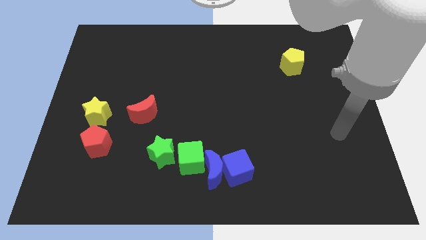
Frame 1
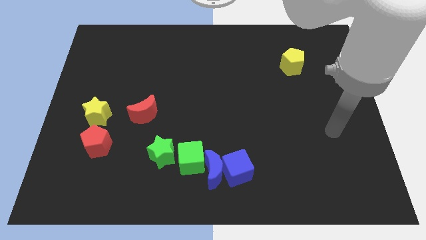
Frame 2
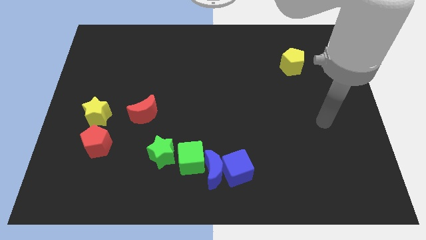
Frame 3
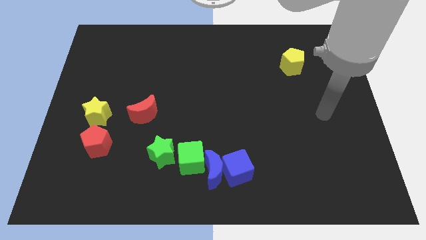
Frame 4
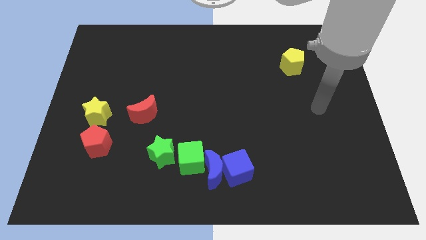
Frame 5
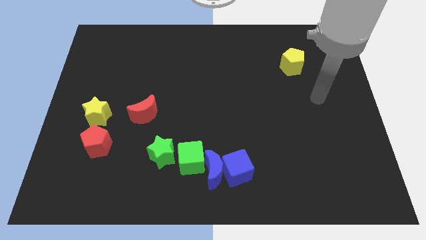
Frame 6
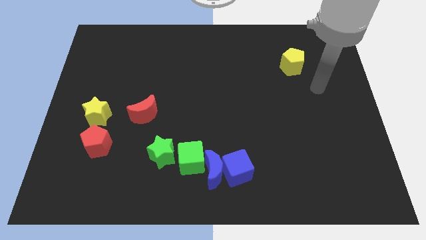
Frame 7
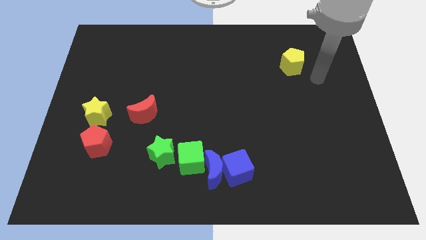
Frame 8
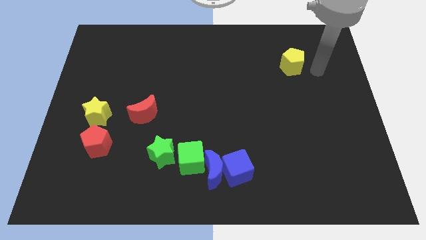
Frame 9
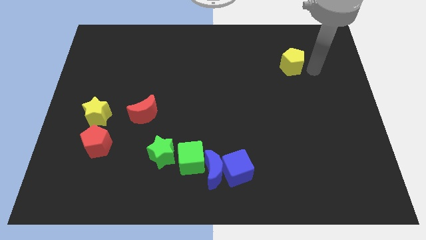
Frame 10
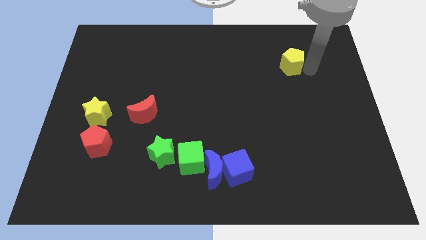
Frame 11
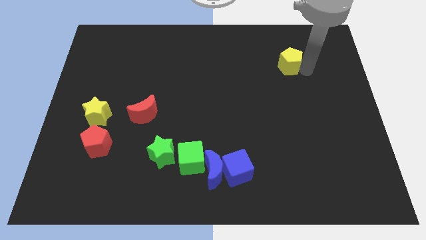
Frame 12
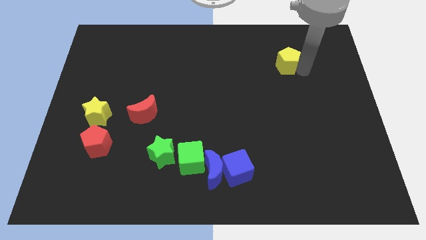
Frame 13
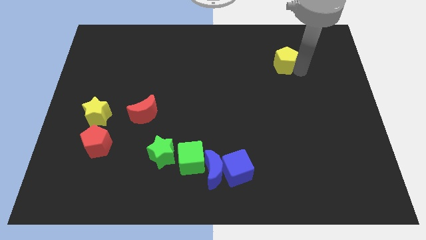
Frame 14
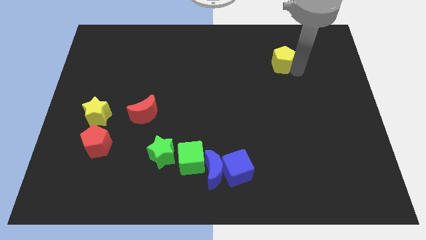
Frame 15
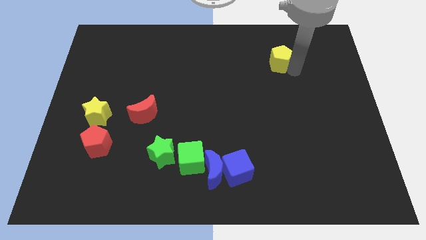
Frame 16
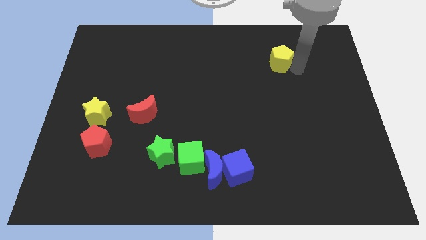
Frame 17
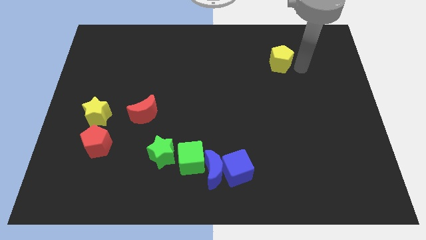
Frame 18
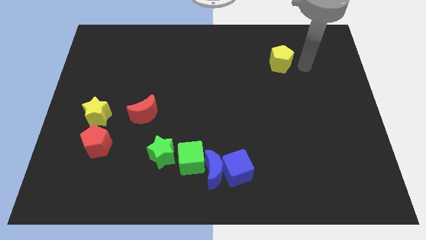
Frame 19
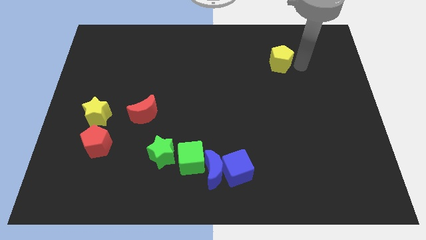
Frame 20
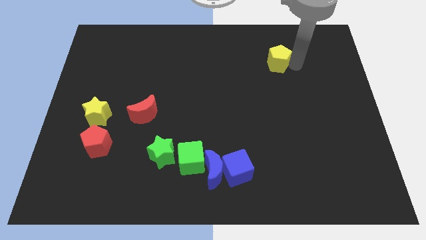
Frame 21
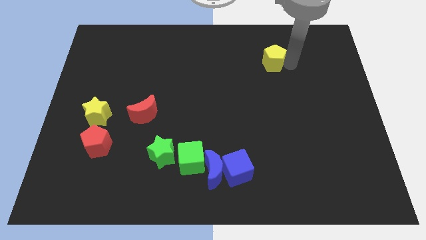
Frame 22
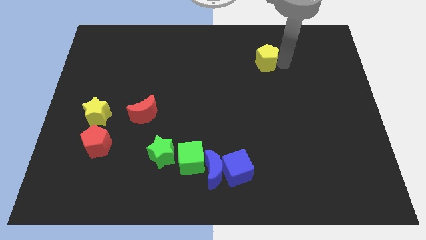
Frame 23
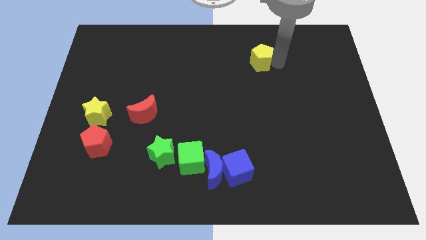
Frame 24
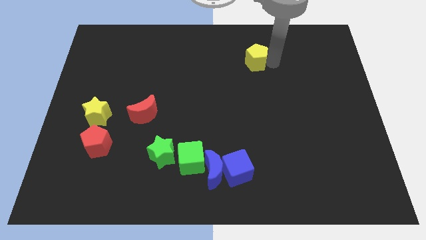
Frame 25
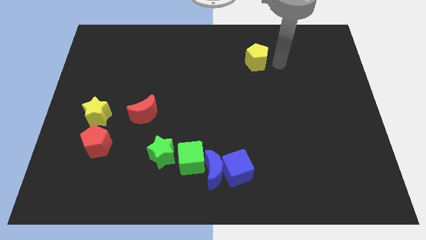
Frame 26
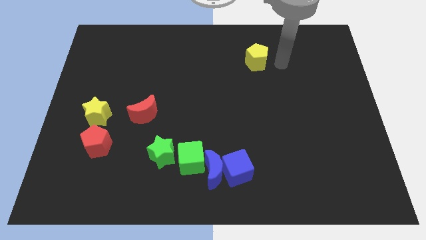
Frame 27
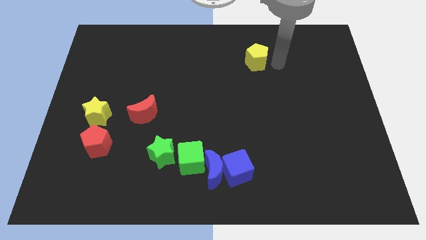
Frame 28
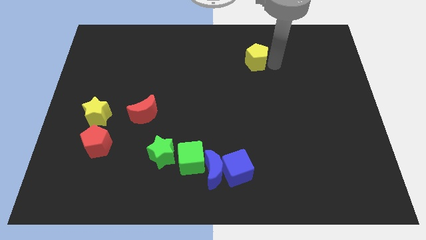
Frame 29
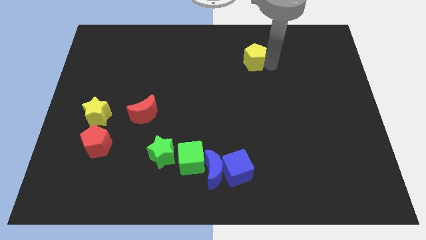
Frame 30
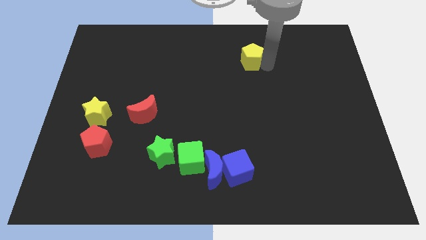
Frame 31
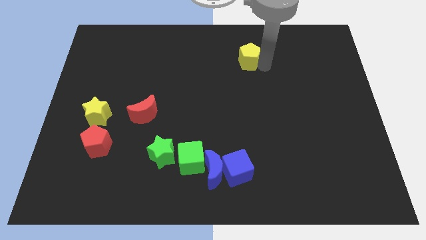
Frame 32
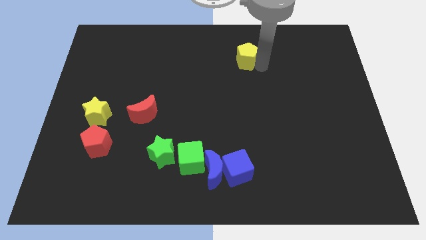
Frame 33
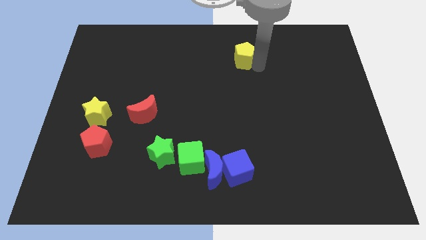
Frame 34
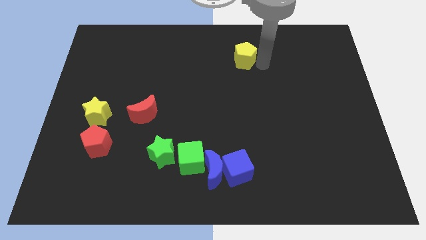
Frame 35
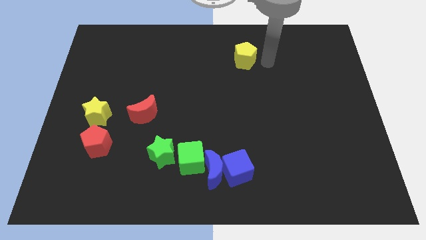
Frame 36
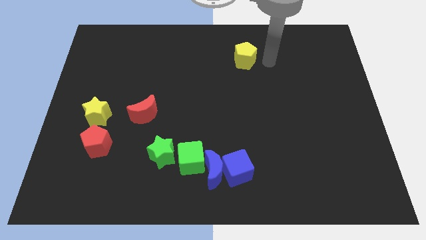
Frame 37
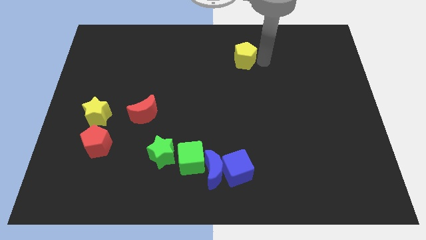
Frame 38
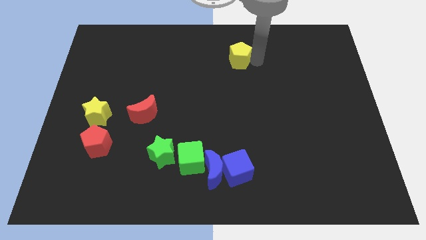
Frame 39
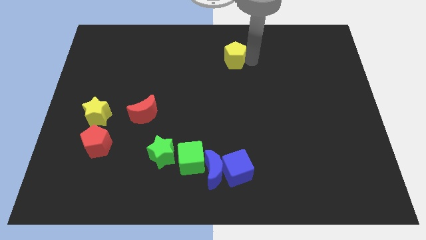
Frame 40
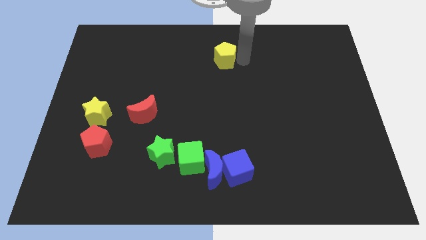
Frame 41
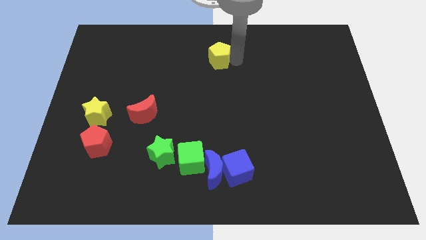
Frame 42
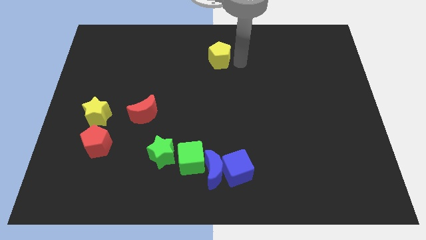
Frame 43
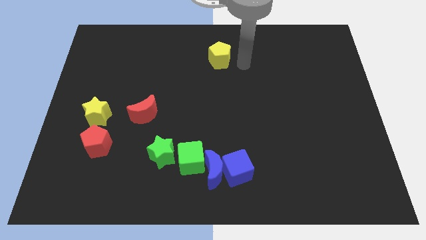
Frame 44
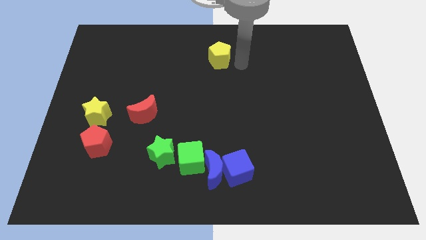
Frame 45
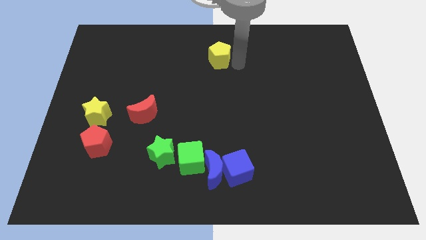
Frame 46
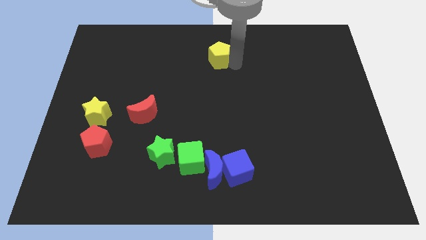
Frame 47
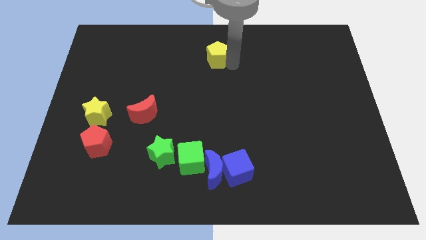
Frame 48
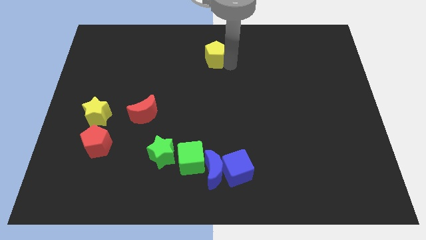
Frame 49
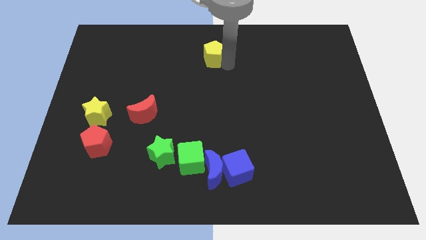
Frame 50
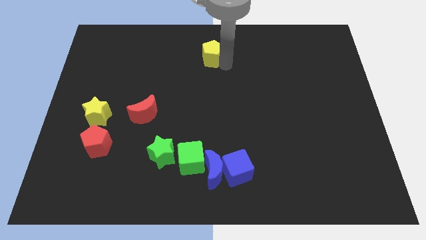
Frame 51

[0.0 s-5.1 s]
move the yellow pentagon to the towards your base

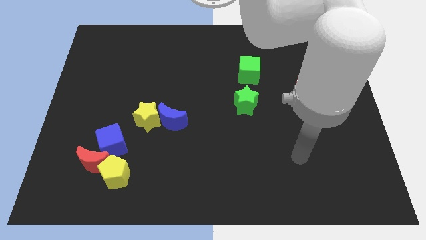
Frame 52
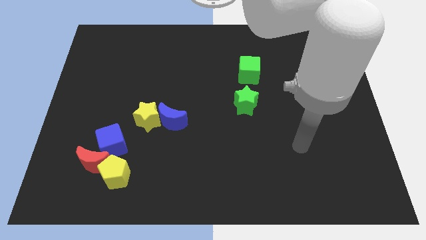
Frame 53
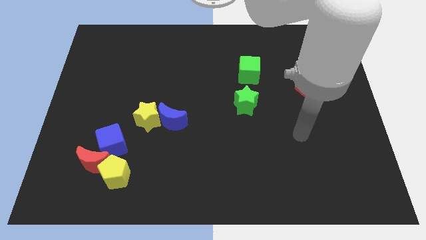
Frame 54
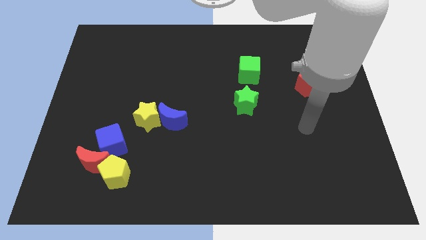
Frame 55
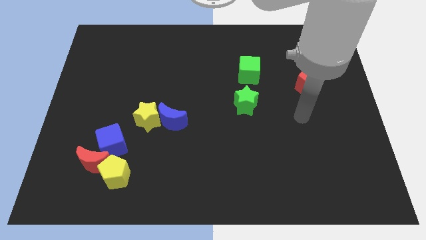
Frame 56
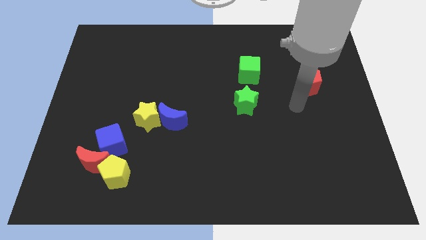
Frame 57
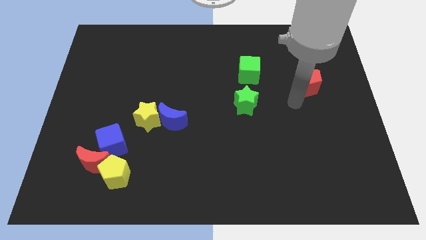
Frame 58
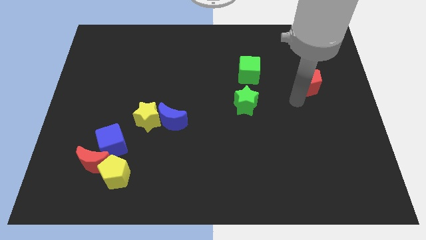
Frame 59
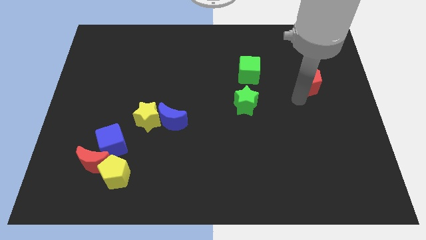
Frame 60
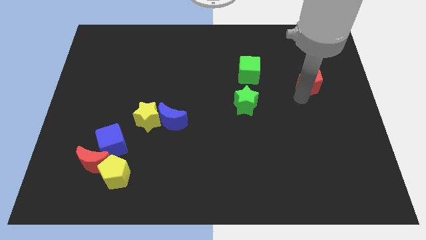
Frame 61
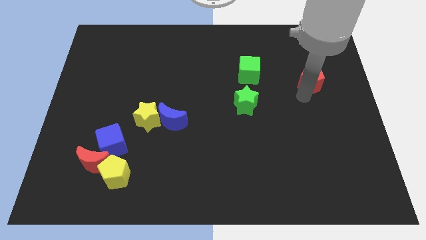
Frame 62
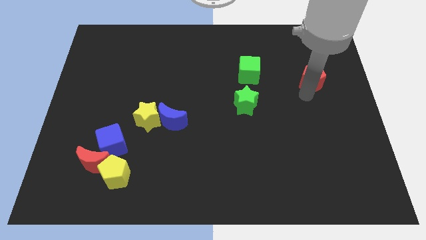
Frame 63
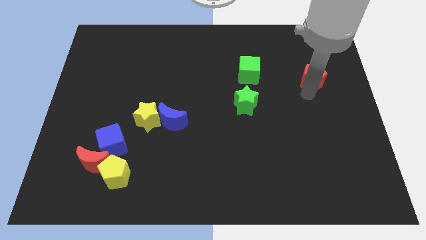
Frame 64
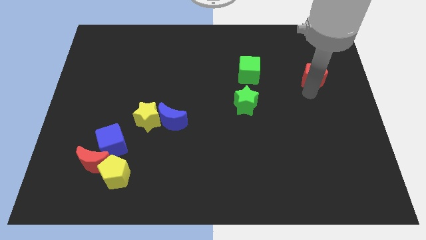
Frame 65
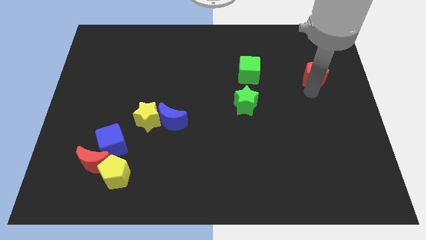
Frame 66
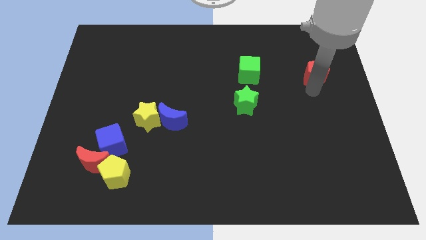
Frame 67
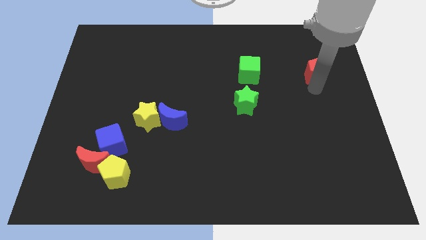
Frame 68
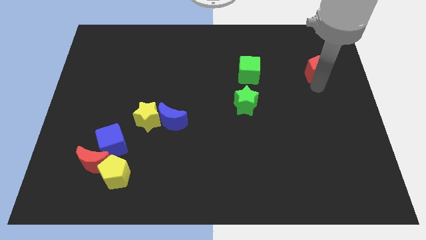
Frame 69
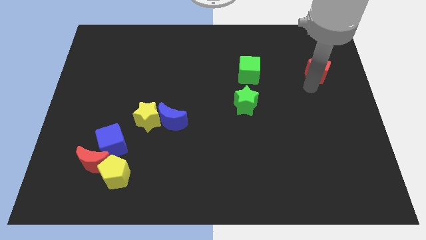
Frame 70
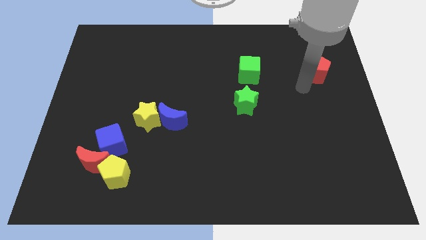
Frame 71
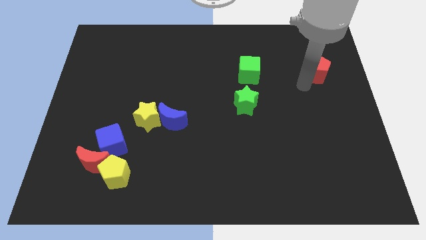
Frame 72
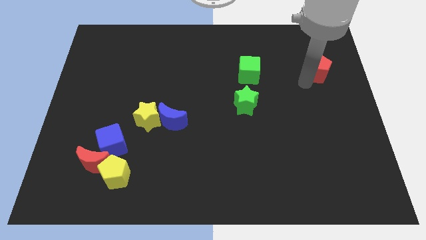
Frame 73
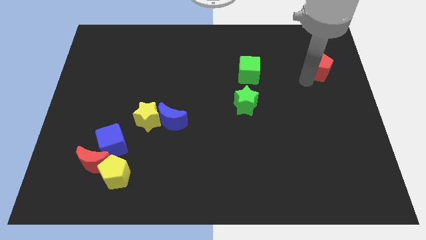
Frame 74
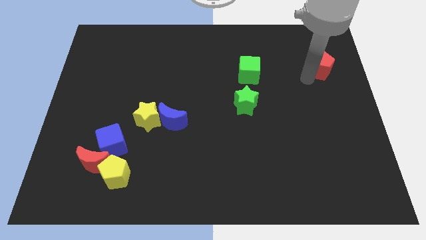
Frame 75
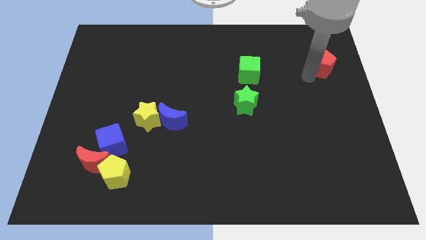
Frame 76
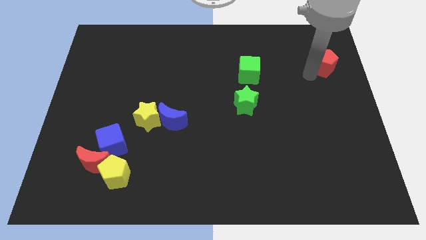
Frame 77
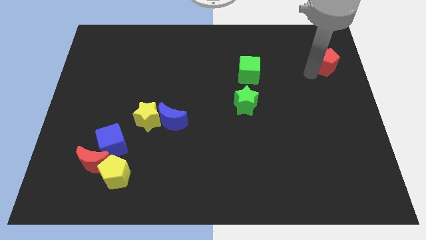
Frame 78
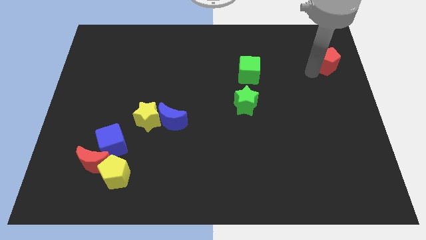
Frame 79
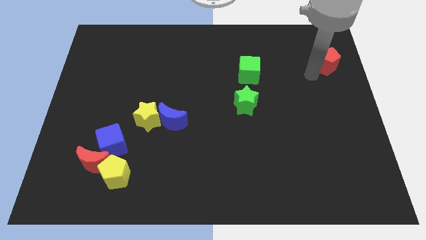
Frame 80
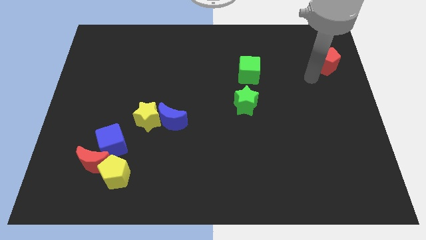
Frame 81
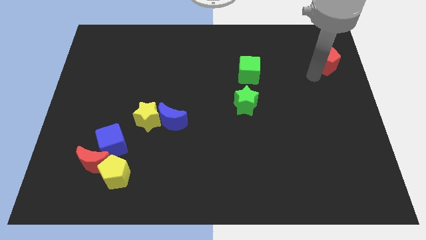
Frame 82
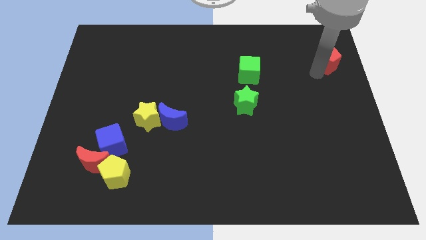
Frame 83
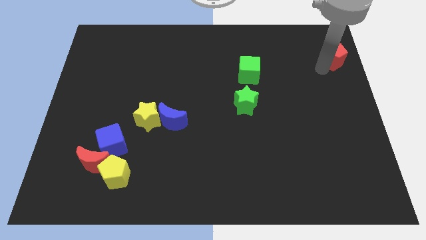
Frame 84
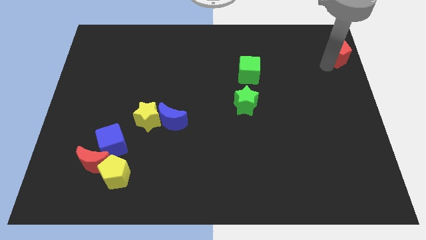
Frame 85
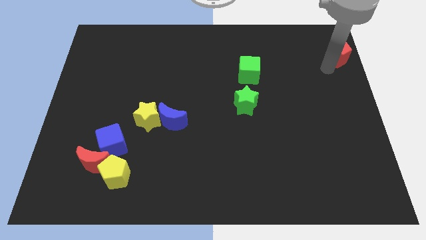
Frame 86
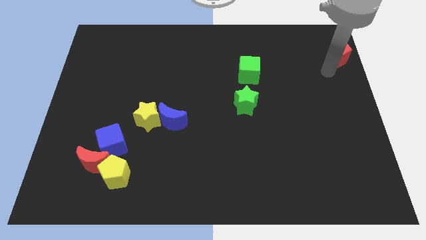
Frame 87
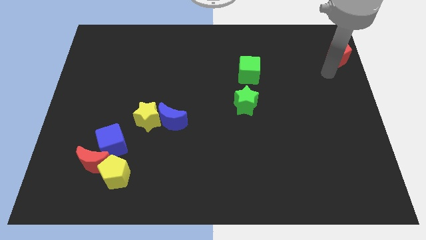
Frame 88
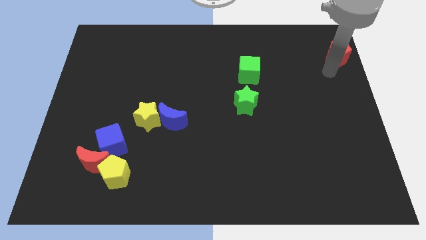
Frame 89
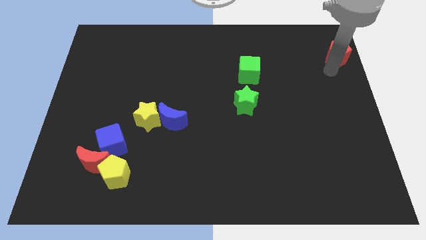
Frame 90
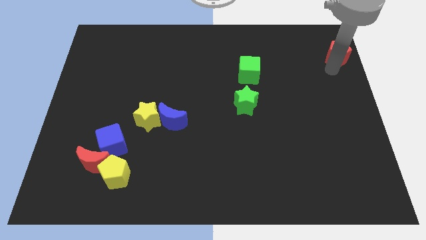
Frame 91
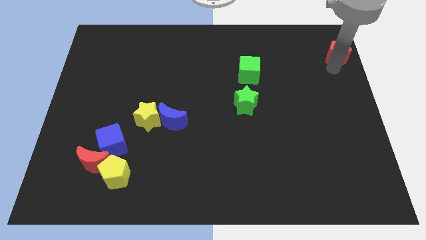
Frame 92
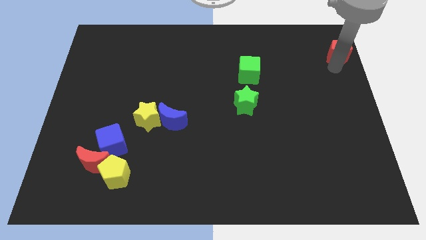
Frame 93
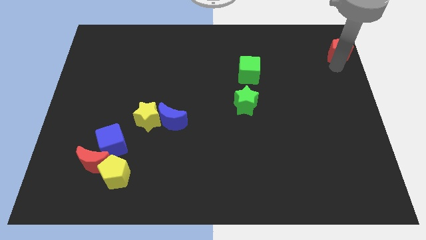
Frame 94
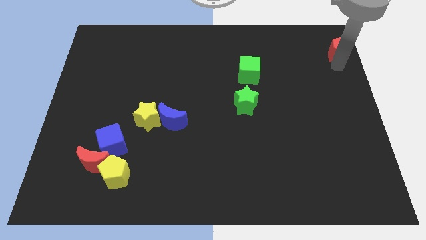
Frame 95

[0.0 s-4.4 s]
put the red pentagon to the top right corner
